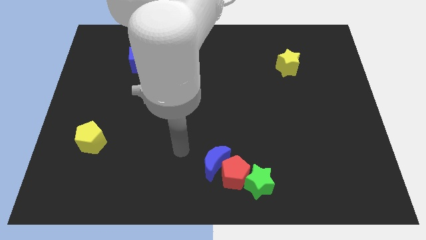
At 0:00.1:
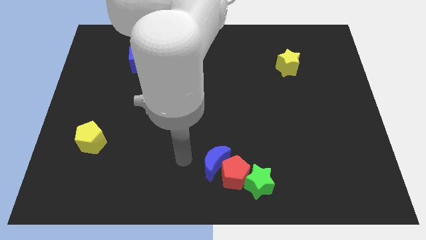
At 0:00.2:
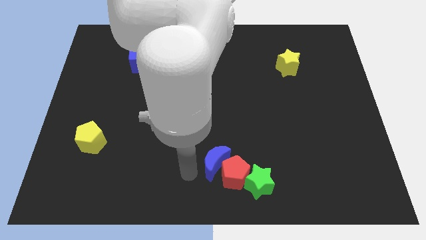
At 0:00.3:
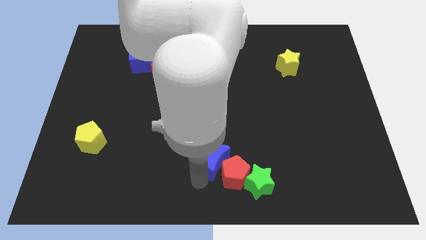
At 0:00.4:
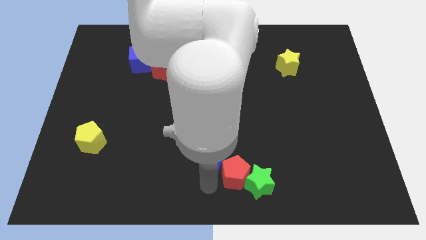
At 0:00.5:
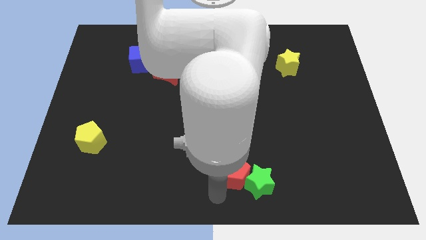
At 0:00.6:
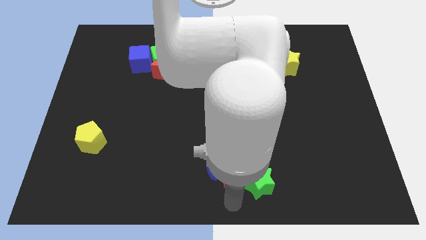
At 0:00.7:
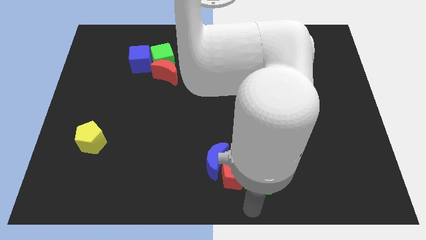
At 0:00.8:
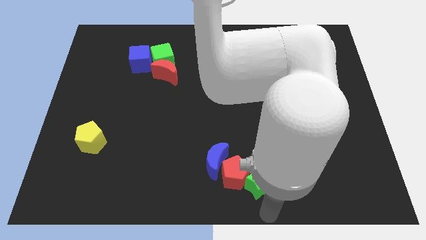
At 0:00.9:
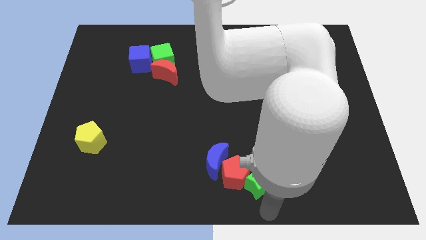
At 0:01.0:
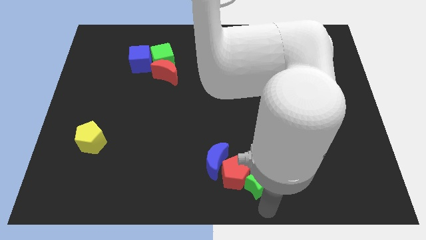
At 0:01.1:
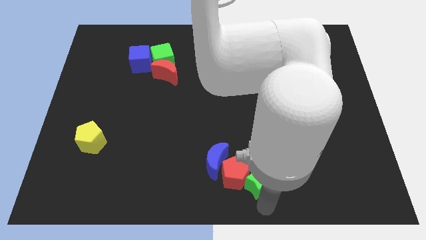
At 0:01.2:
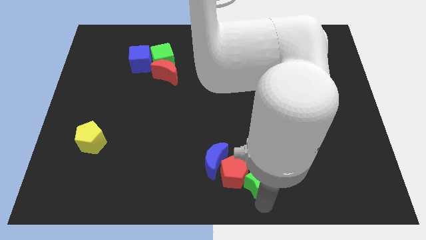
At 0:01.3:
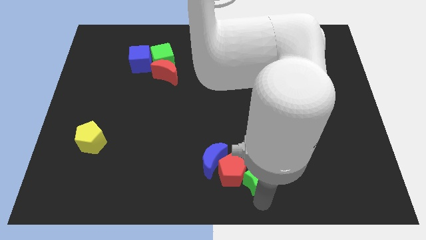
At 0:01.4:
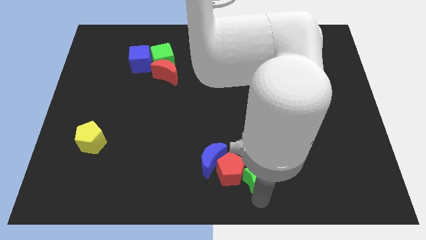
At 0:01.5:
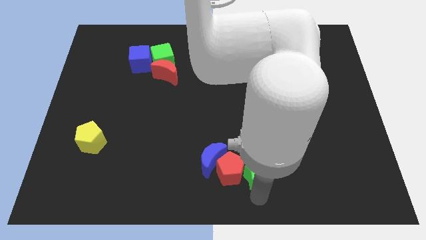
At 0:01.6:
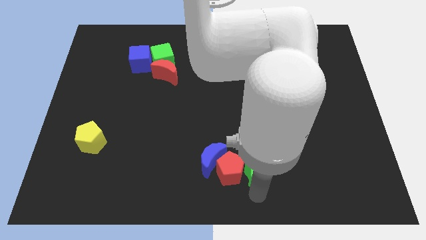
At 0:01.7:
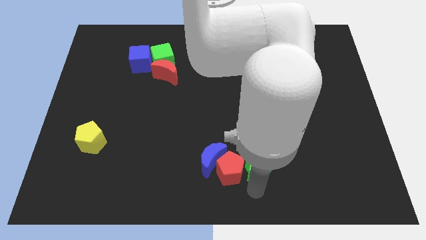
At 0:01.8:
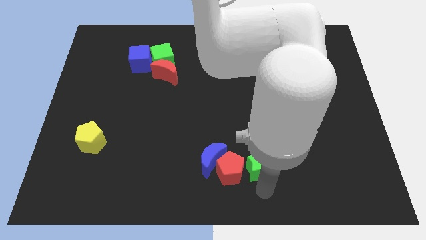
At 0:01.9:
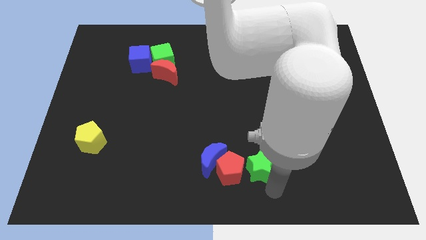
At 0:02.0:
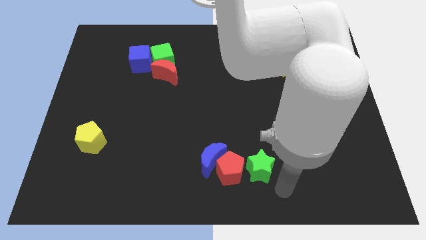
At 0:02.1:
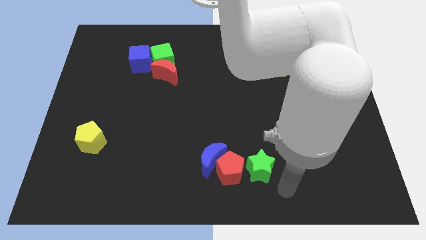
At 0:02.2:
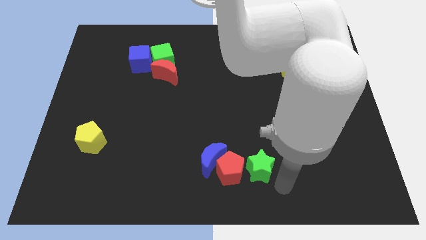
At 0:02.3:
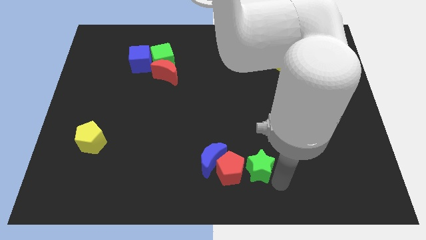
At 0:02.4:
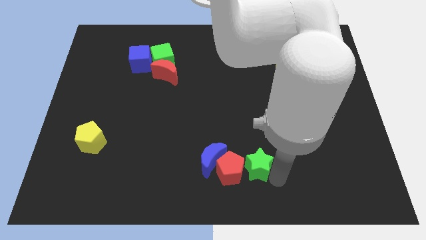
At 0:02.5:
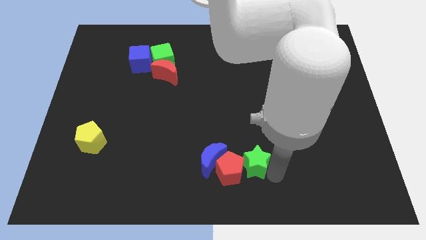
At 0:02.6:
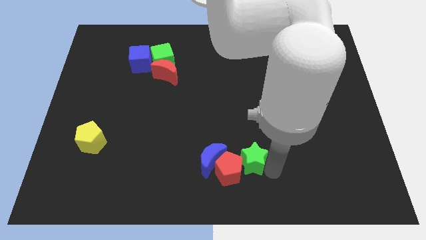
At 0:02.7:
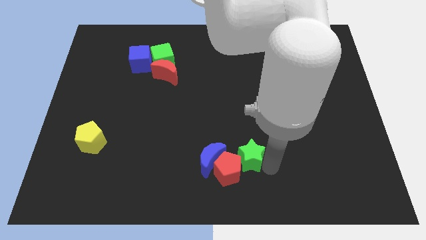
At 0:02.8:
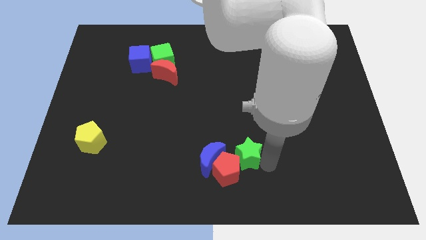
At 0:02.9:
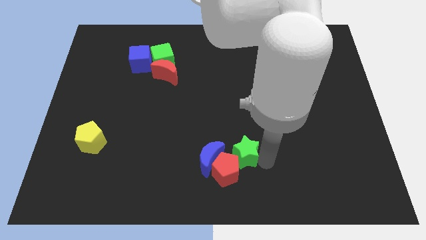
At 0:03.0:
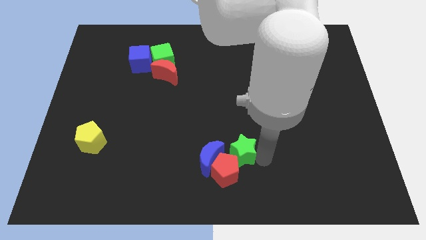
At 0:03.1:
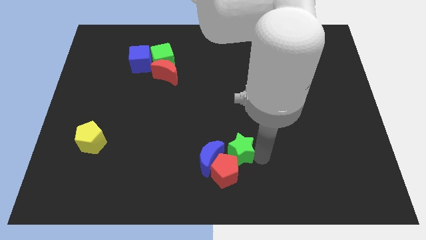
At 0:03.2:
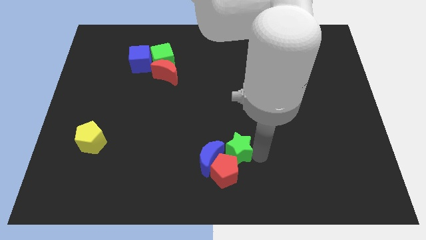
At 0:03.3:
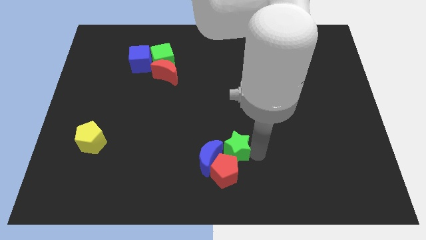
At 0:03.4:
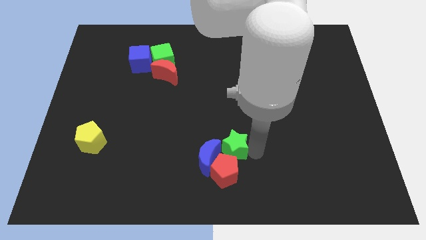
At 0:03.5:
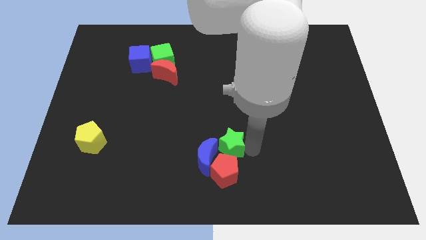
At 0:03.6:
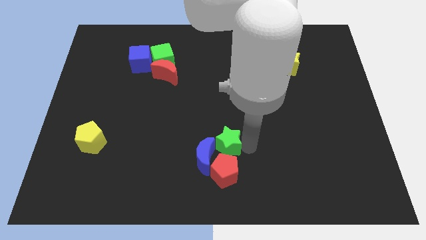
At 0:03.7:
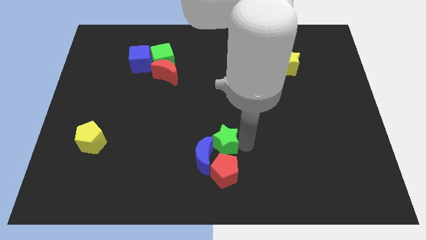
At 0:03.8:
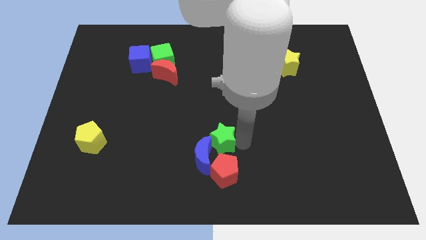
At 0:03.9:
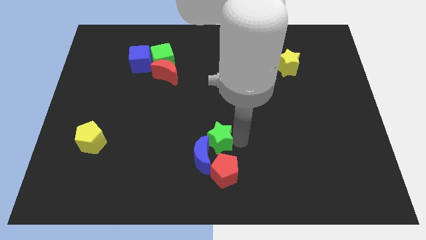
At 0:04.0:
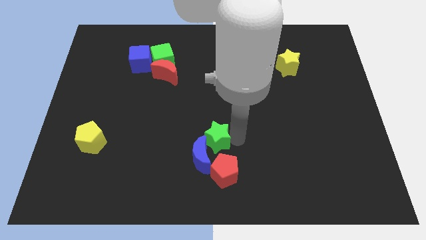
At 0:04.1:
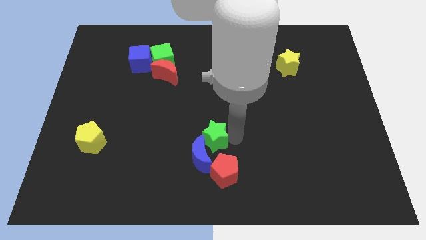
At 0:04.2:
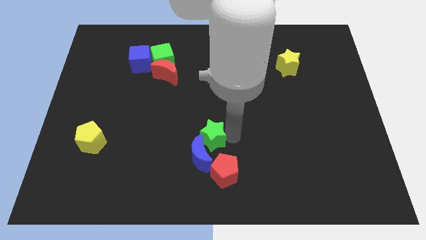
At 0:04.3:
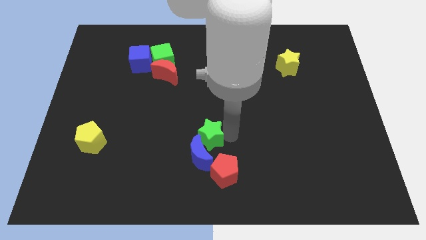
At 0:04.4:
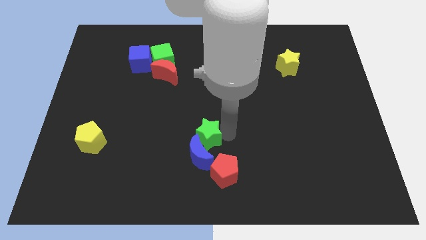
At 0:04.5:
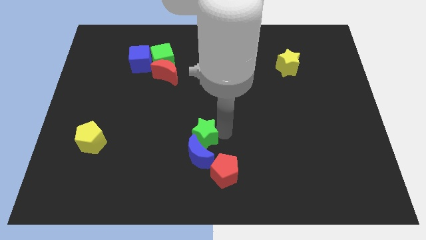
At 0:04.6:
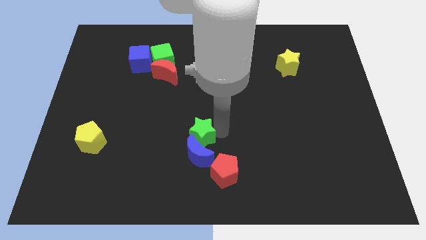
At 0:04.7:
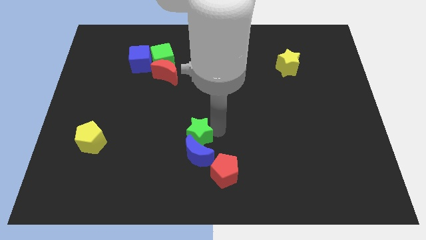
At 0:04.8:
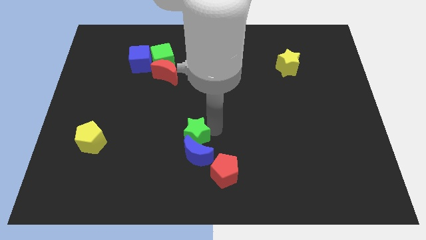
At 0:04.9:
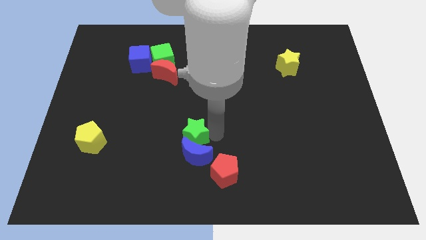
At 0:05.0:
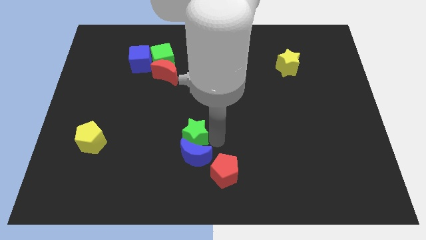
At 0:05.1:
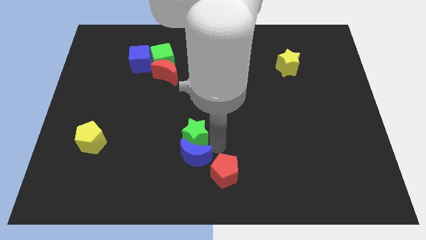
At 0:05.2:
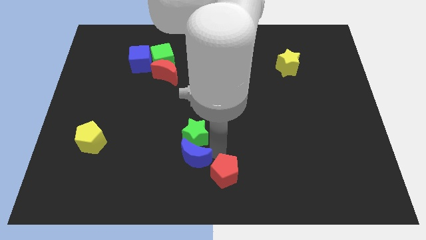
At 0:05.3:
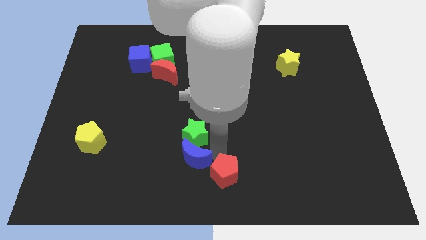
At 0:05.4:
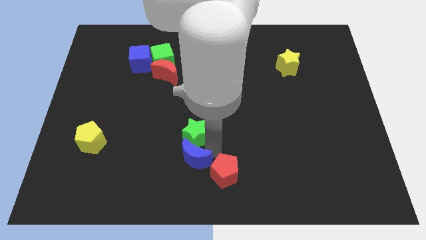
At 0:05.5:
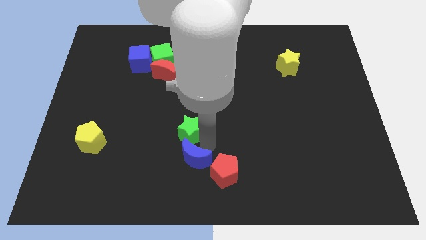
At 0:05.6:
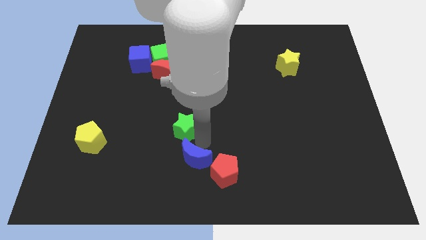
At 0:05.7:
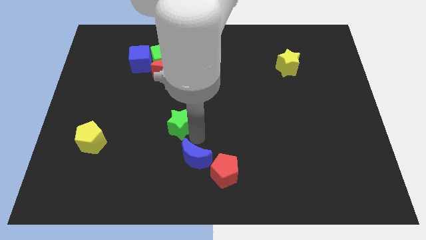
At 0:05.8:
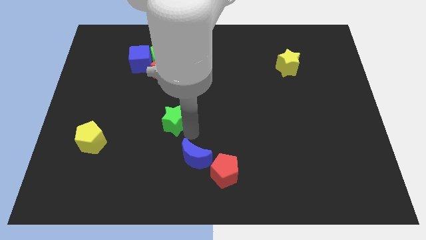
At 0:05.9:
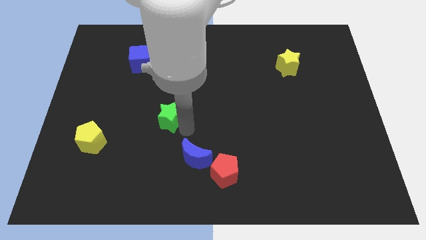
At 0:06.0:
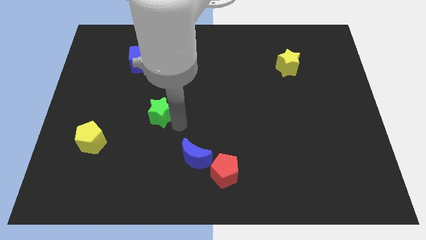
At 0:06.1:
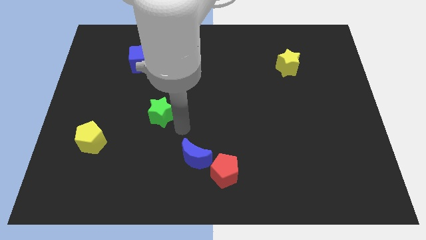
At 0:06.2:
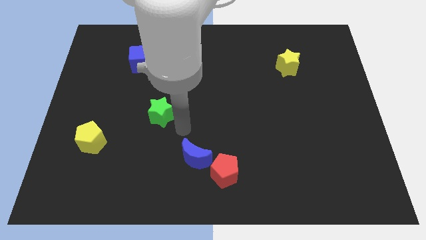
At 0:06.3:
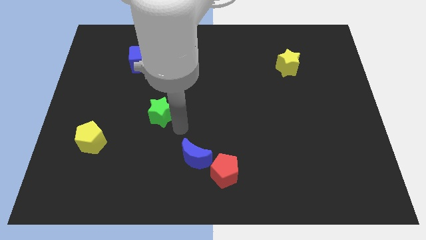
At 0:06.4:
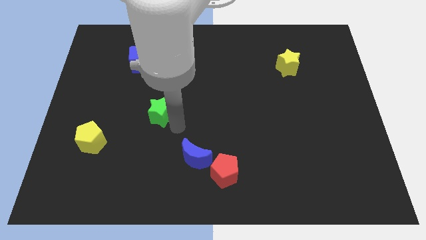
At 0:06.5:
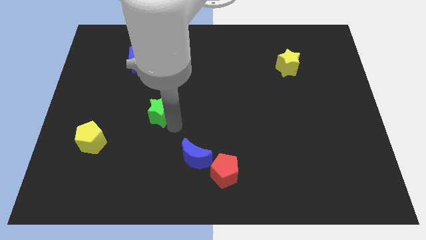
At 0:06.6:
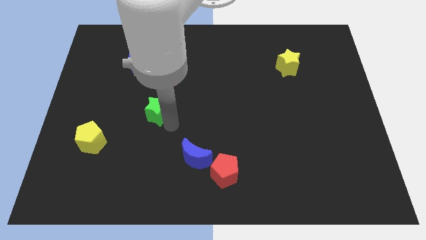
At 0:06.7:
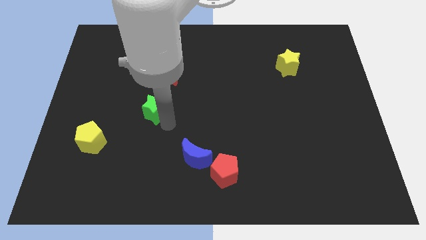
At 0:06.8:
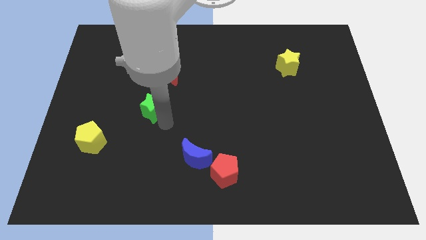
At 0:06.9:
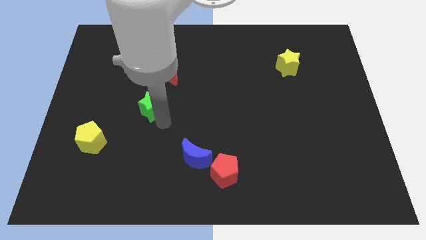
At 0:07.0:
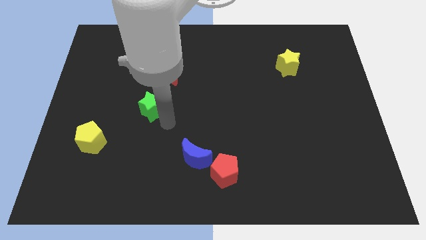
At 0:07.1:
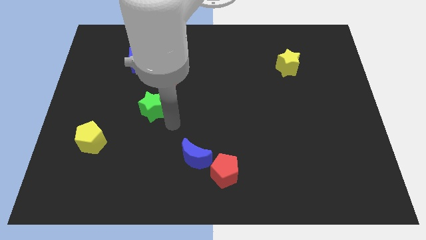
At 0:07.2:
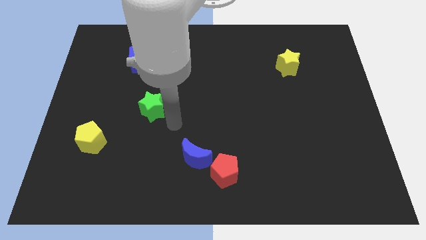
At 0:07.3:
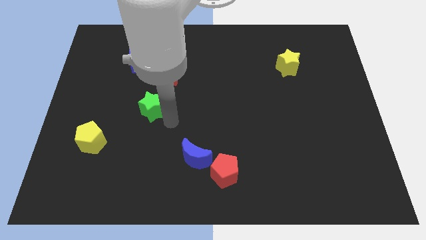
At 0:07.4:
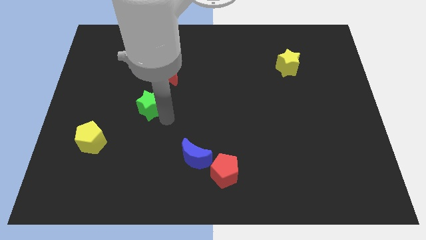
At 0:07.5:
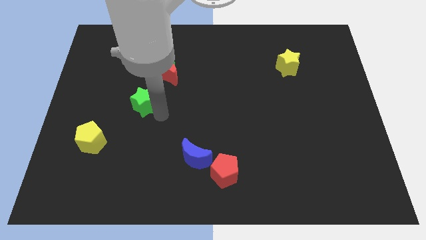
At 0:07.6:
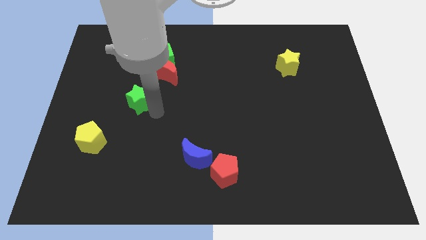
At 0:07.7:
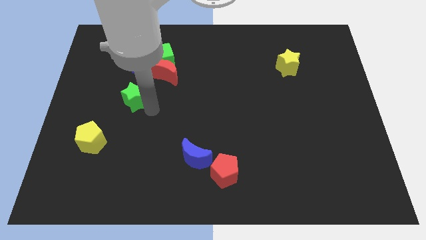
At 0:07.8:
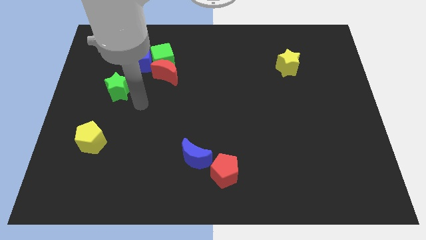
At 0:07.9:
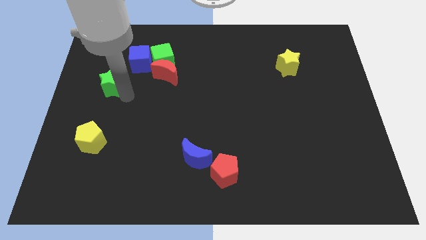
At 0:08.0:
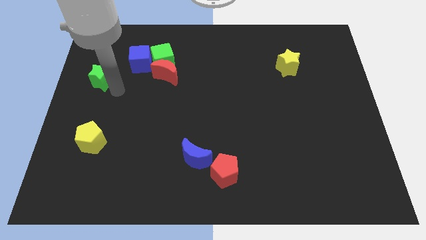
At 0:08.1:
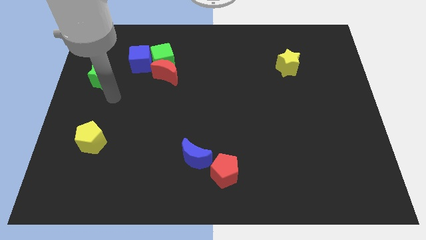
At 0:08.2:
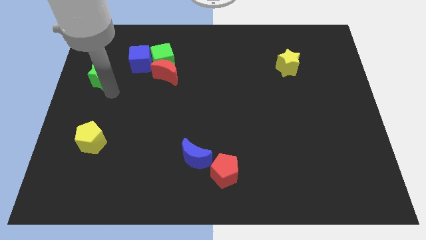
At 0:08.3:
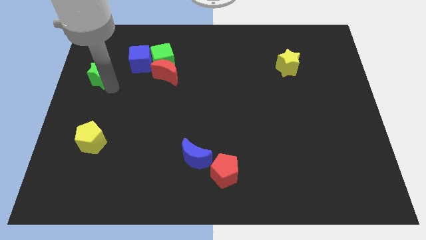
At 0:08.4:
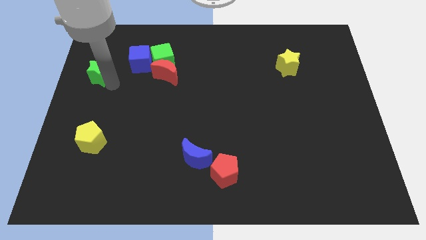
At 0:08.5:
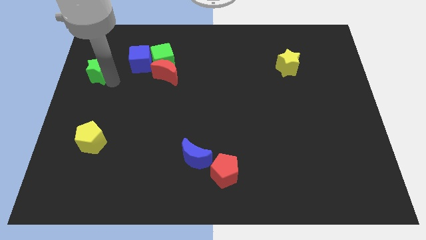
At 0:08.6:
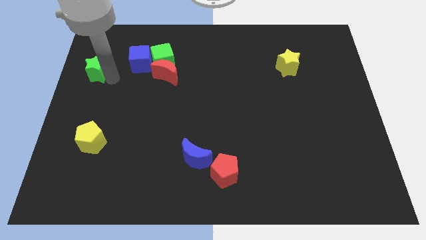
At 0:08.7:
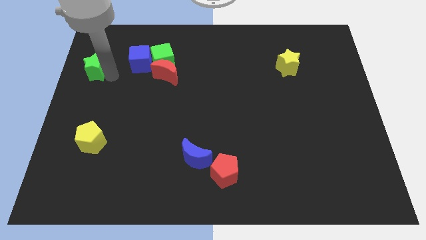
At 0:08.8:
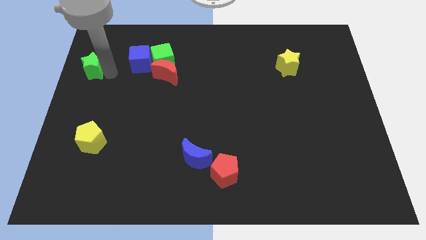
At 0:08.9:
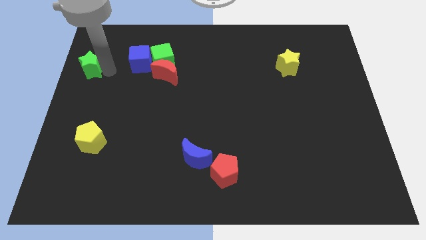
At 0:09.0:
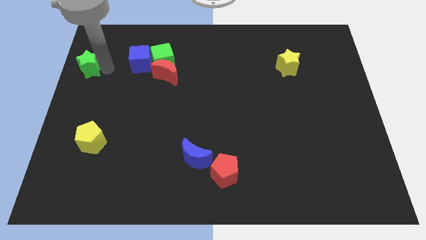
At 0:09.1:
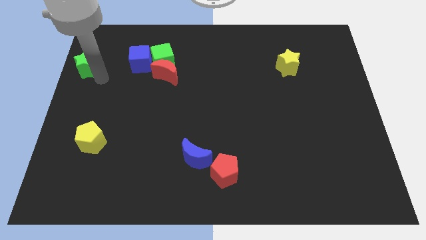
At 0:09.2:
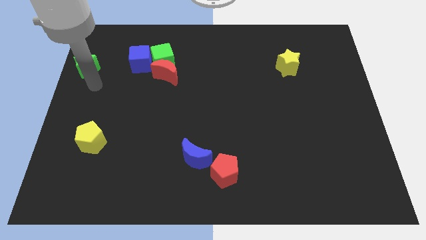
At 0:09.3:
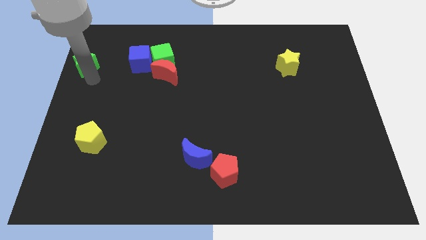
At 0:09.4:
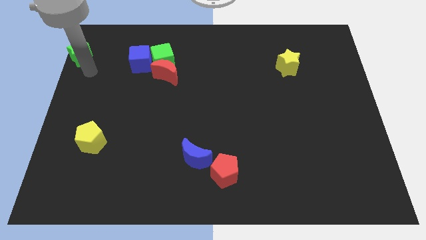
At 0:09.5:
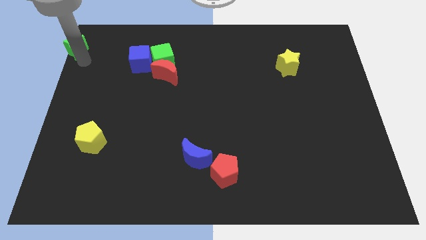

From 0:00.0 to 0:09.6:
put the green star to the upper left corner
